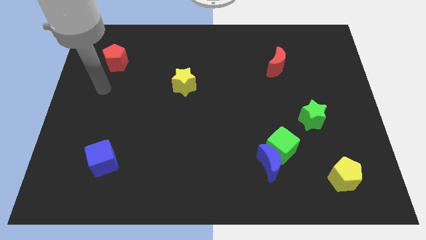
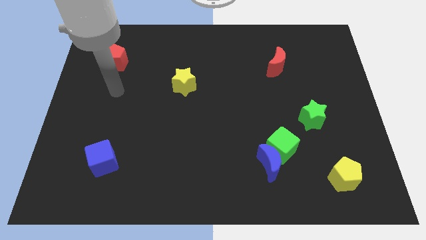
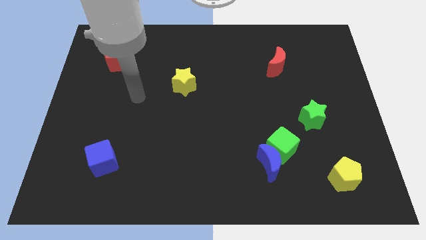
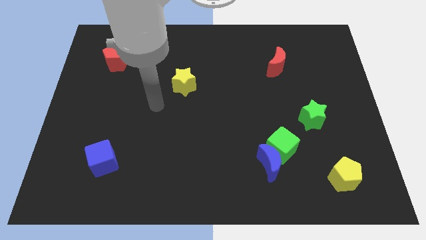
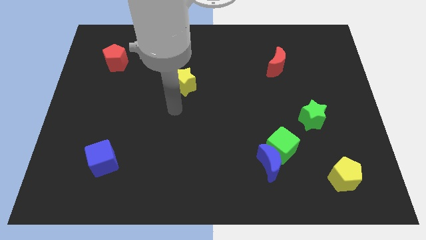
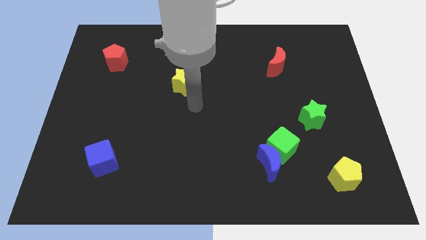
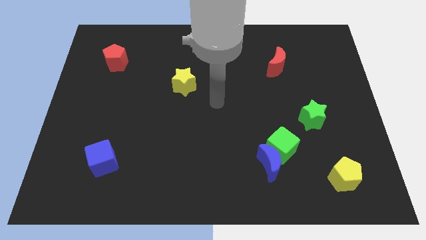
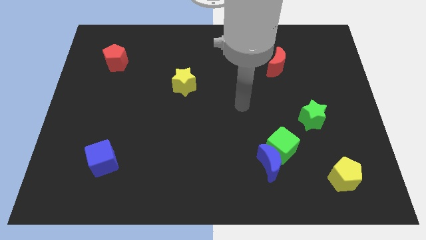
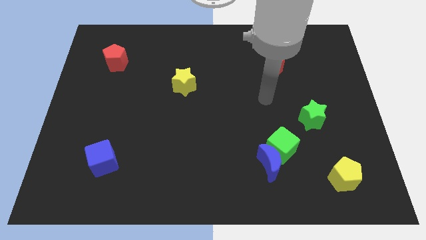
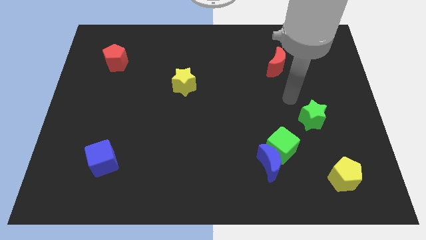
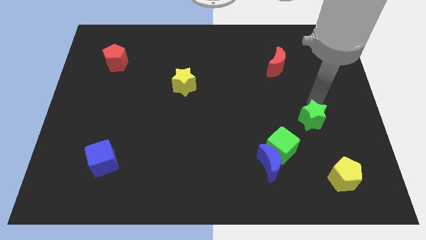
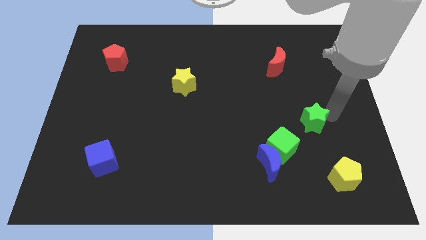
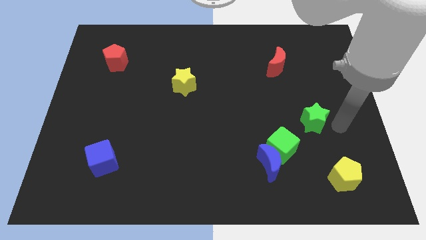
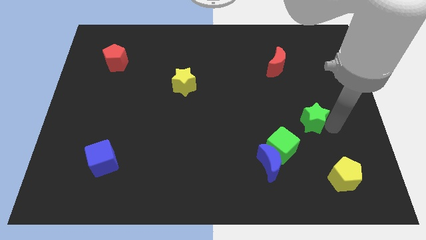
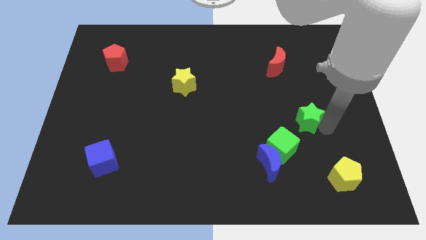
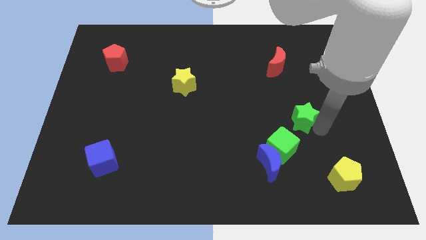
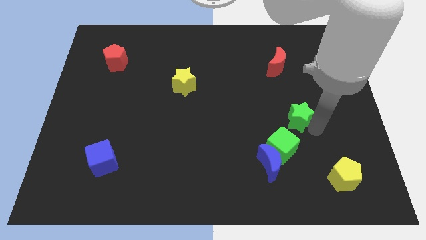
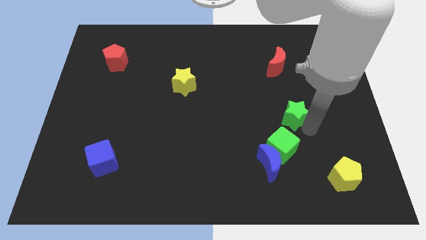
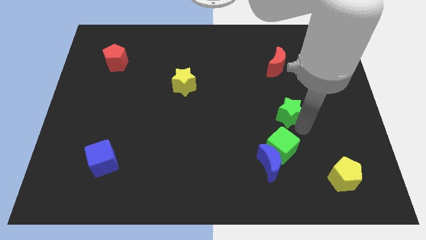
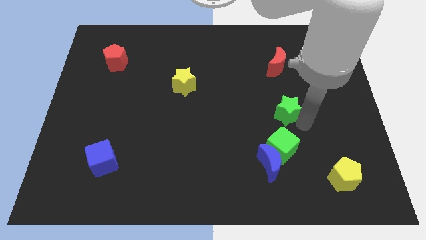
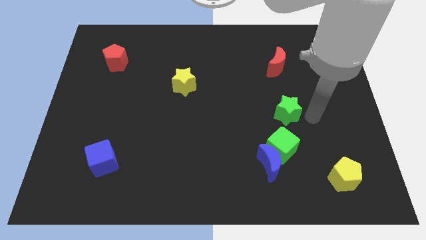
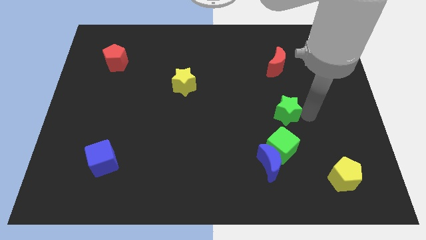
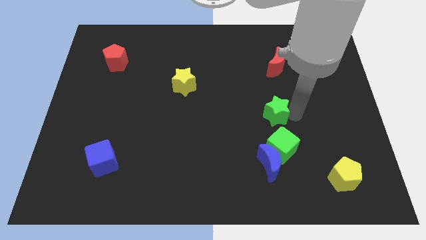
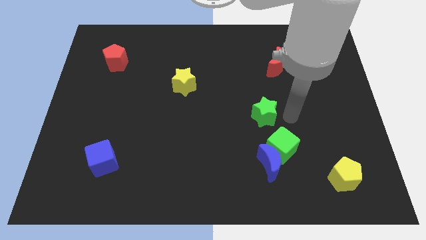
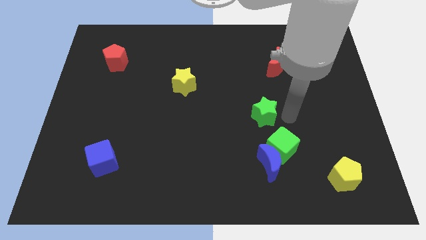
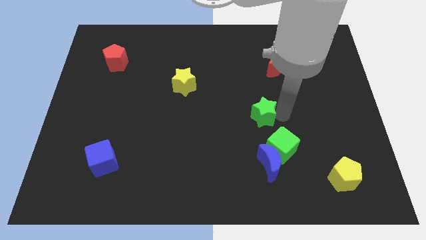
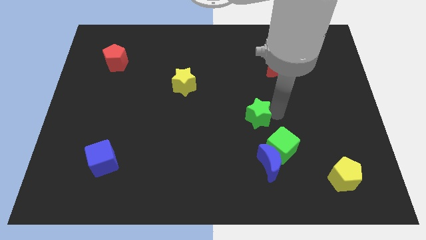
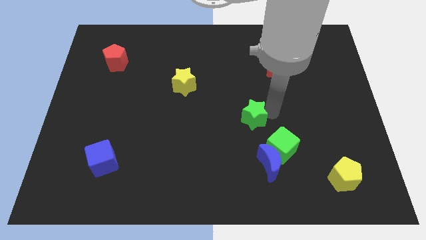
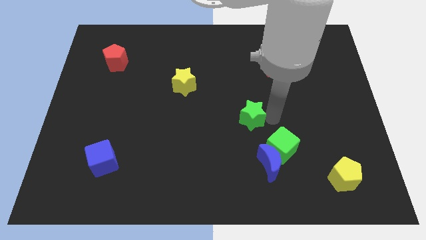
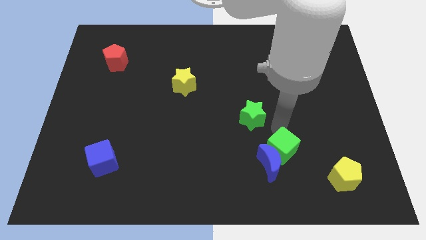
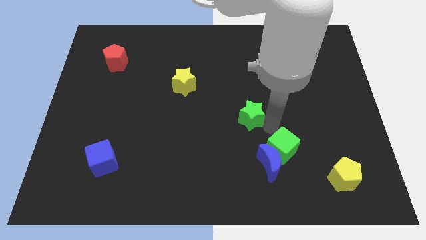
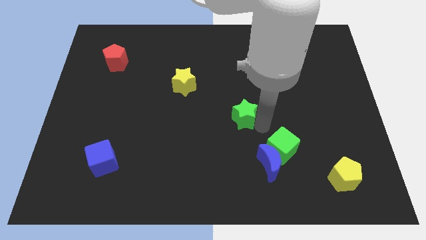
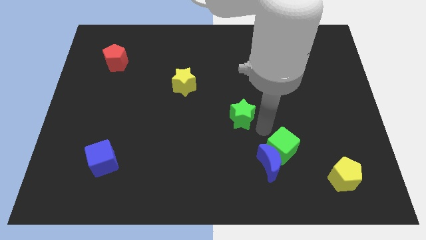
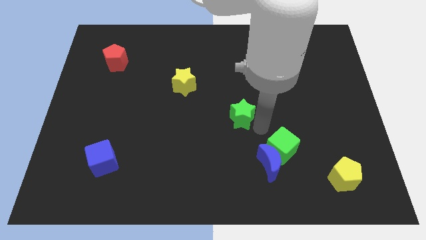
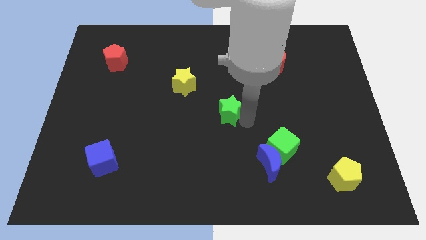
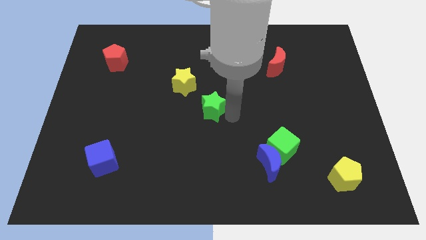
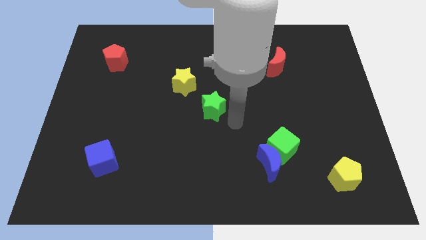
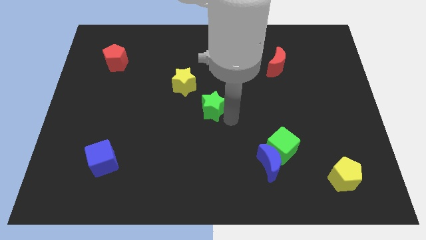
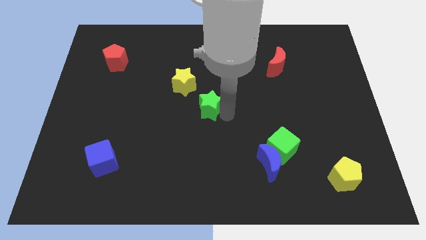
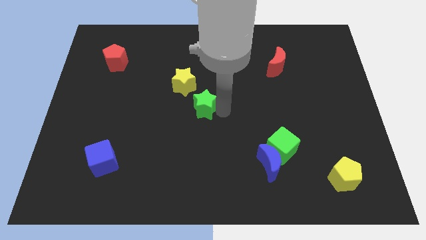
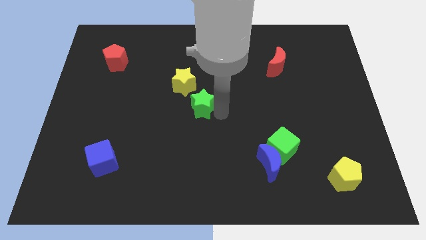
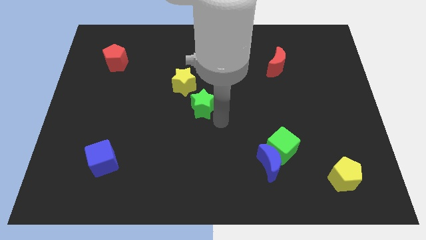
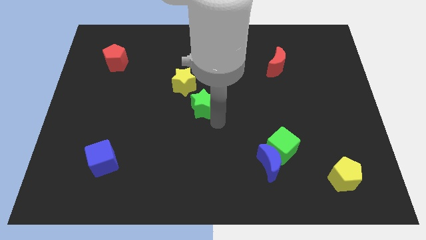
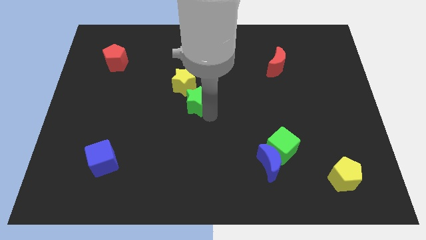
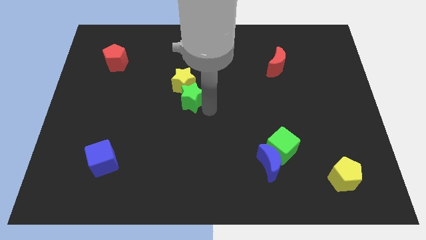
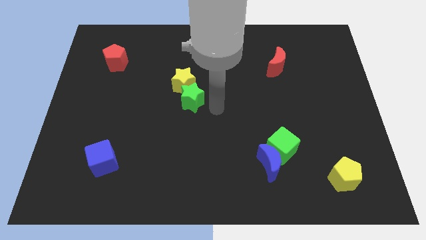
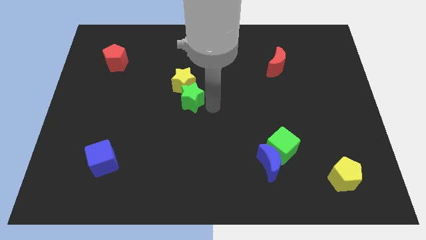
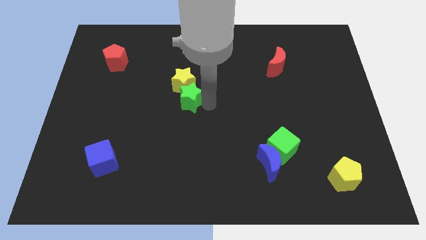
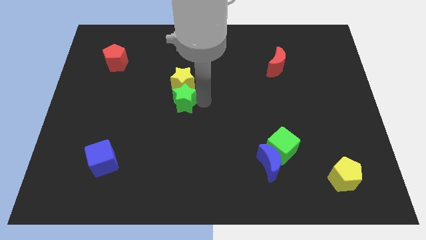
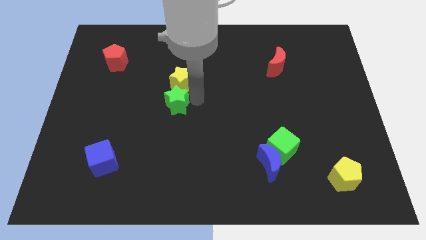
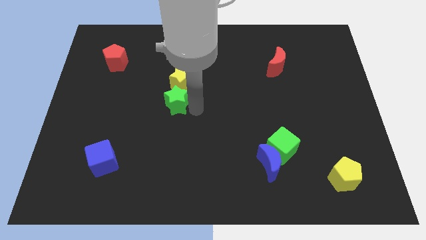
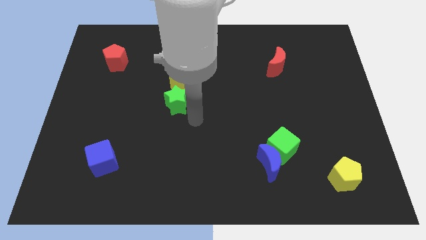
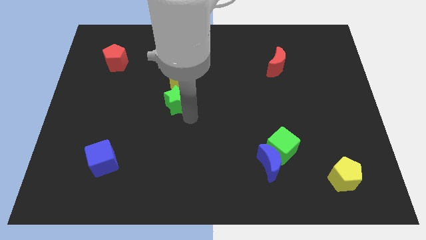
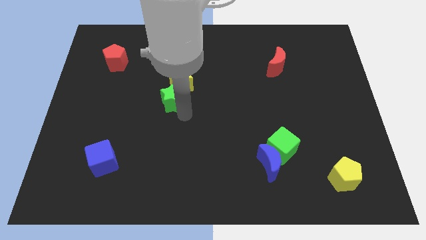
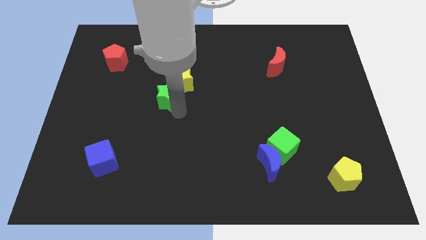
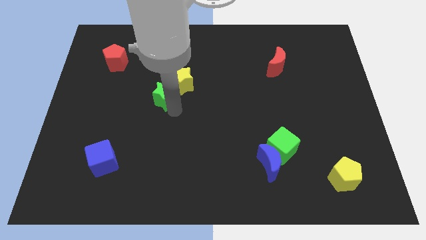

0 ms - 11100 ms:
move the green star just left of the yellow star

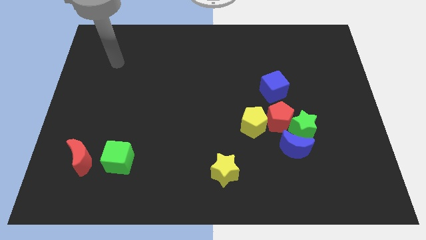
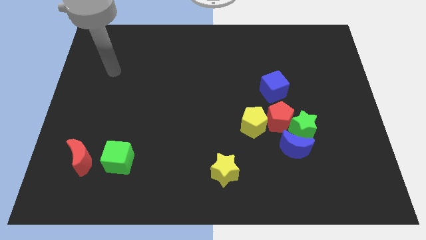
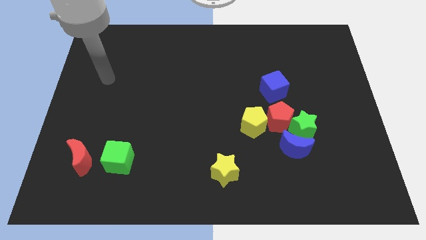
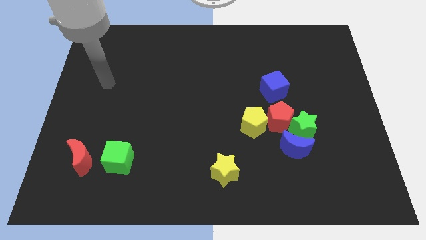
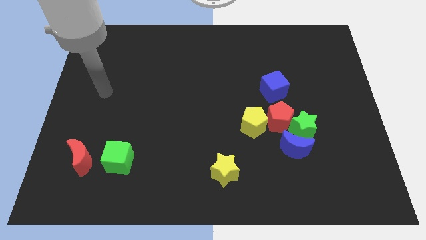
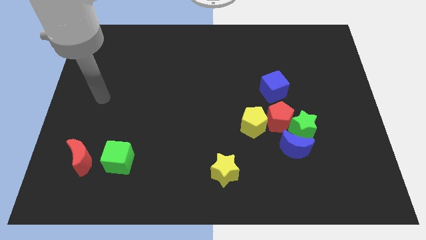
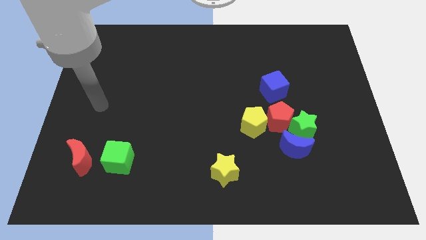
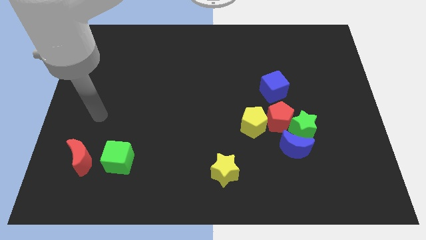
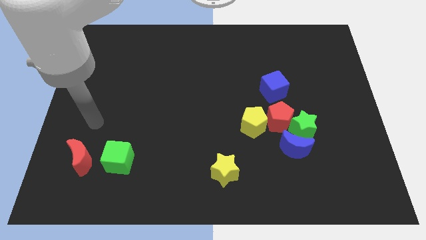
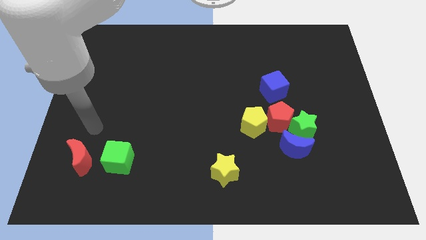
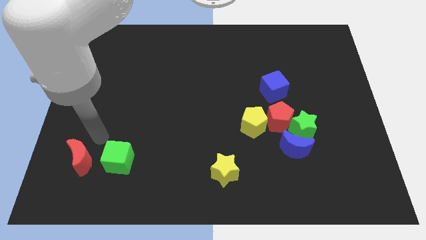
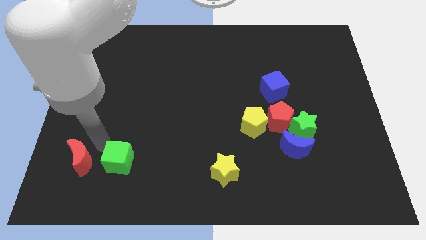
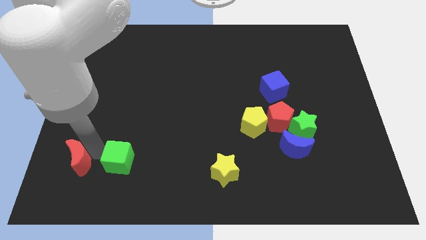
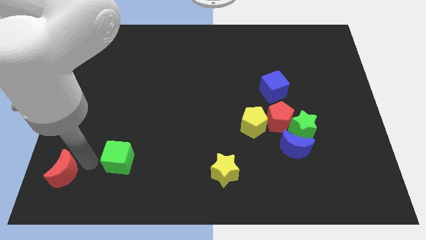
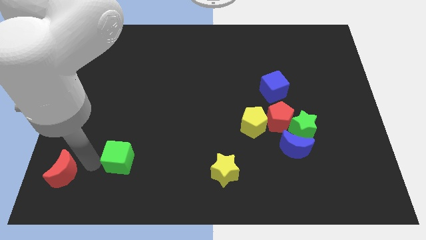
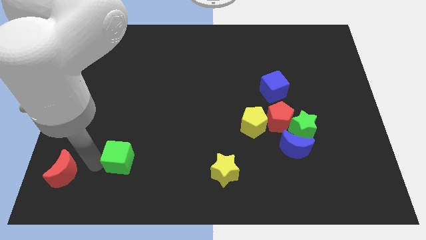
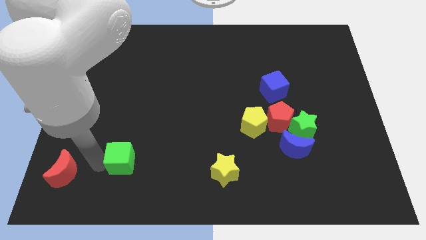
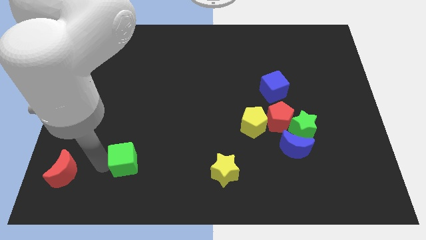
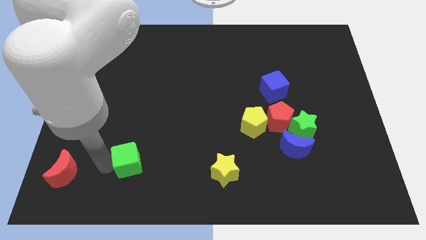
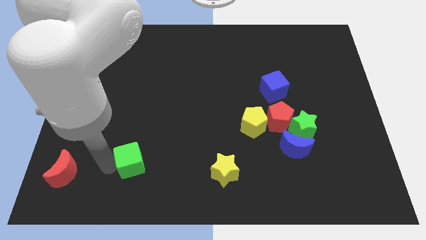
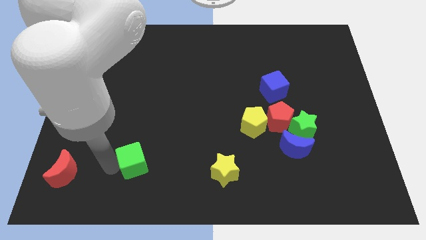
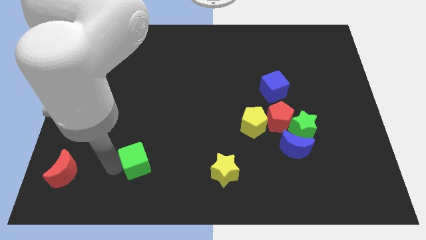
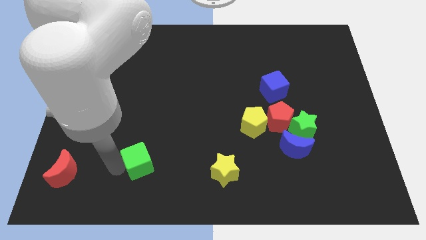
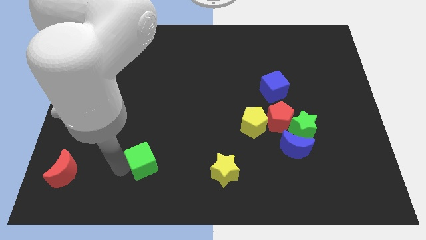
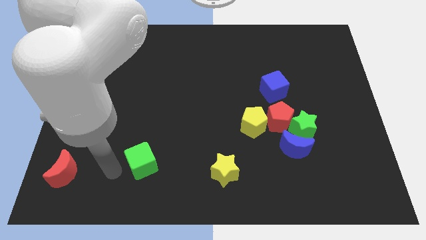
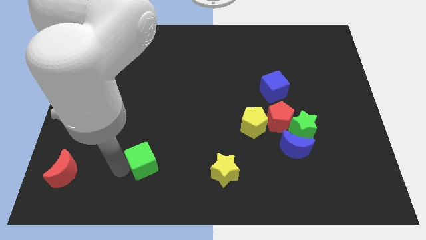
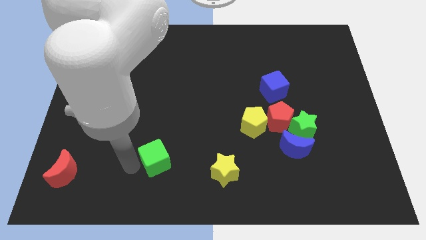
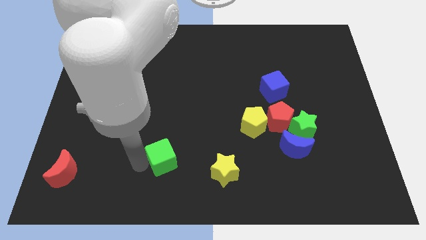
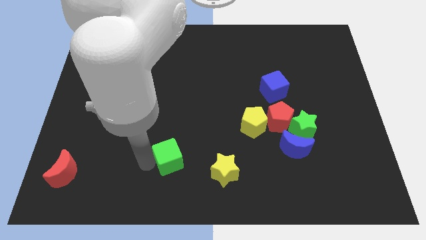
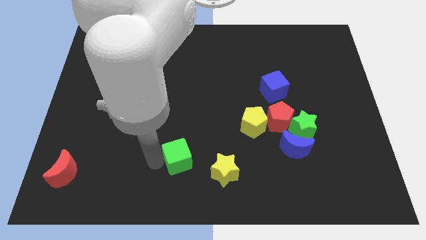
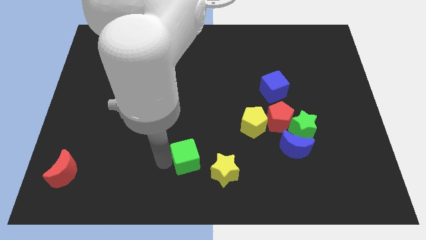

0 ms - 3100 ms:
push the green cube diagonally up and to the left of the yellow star
